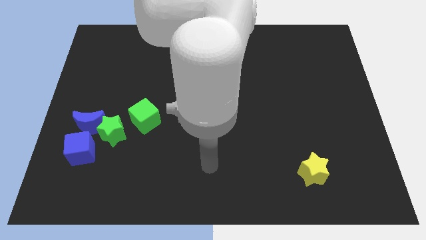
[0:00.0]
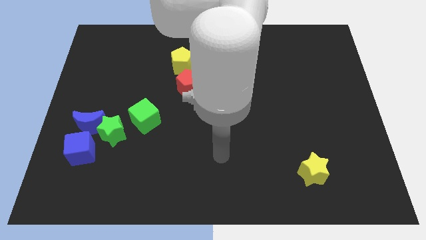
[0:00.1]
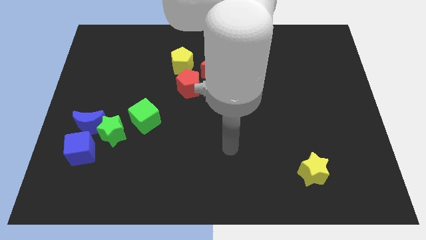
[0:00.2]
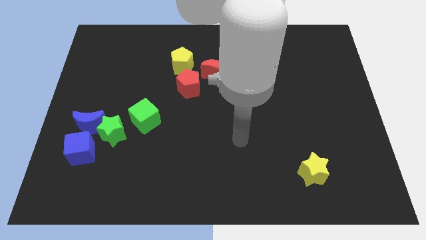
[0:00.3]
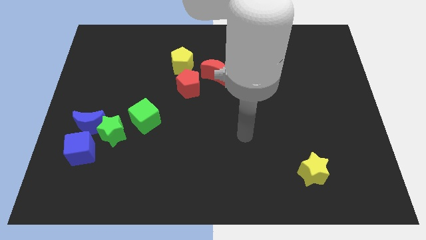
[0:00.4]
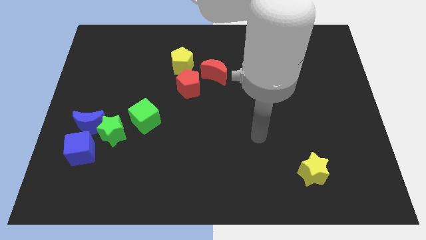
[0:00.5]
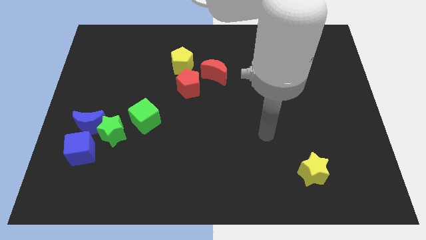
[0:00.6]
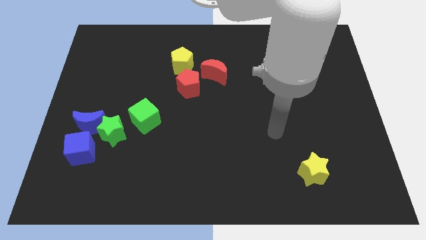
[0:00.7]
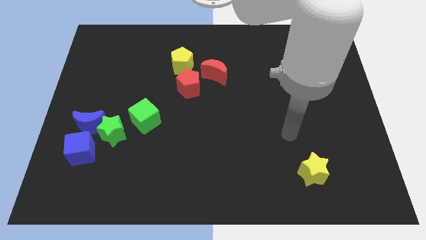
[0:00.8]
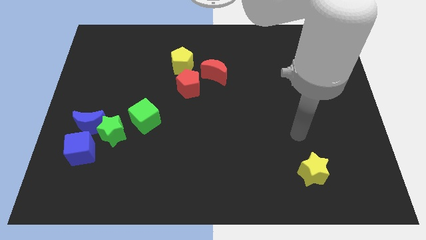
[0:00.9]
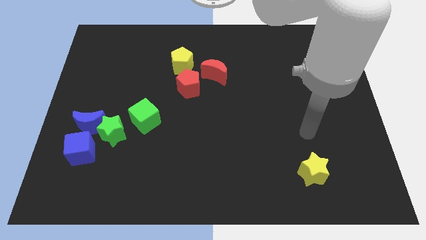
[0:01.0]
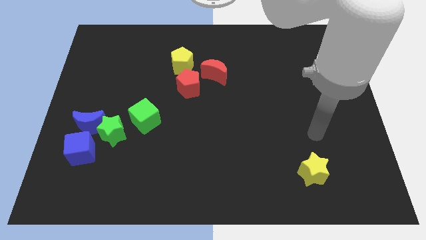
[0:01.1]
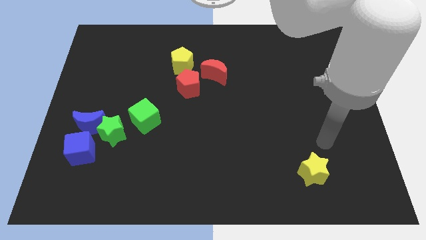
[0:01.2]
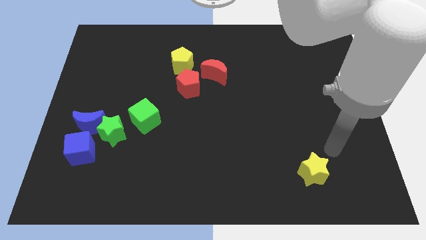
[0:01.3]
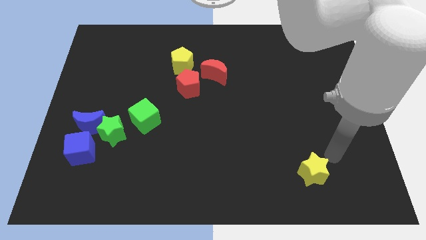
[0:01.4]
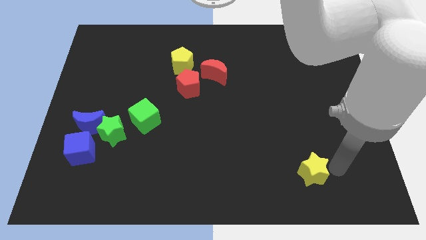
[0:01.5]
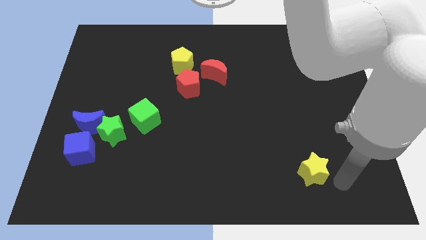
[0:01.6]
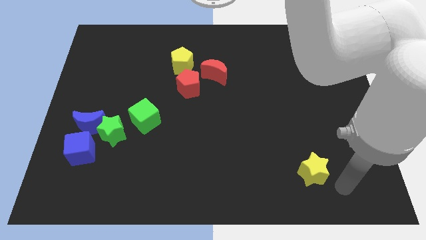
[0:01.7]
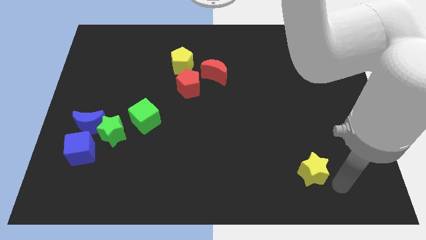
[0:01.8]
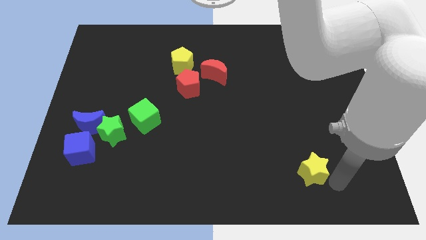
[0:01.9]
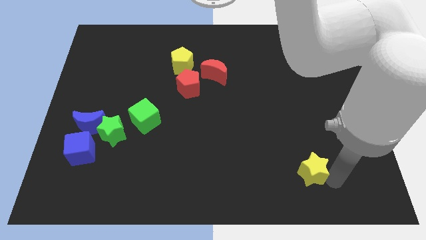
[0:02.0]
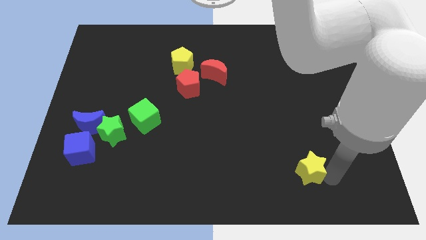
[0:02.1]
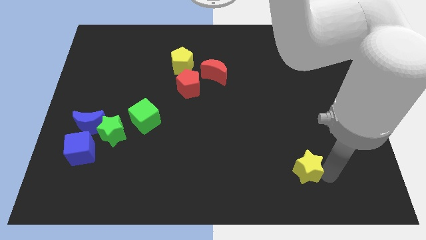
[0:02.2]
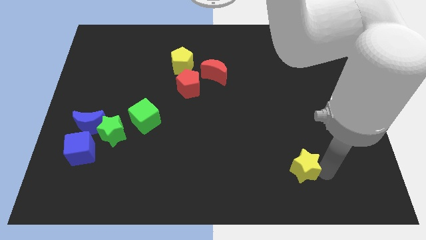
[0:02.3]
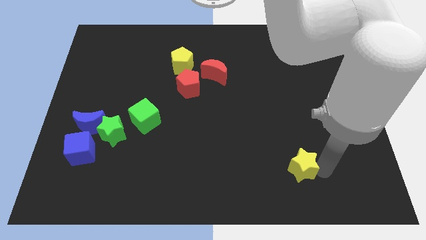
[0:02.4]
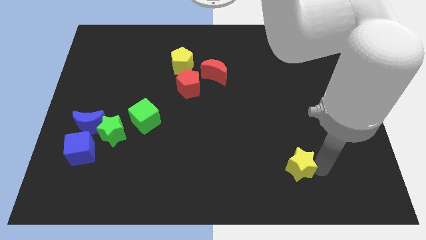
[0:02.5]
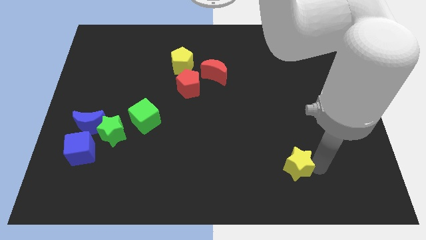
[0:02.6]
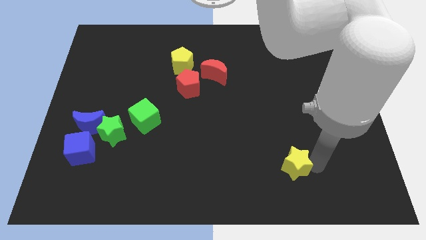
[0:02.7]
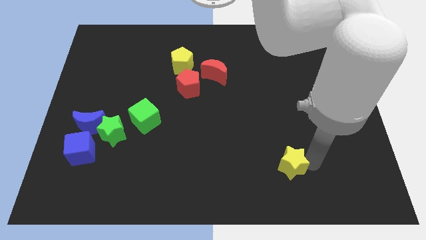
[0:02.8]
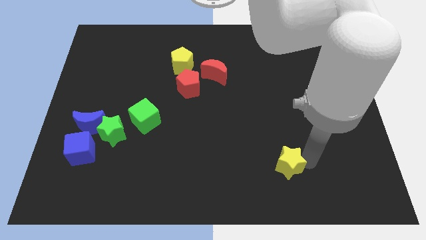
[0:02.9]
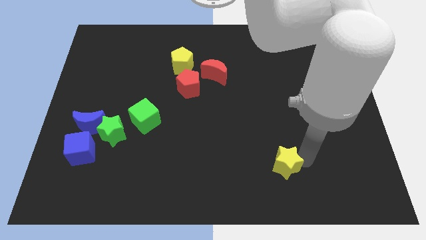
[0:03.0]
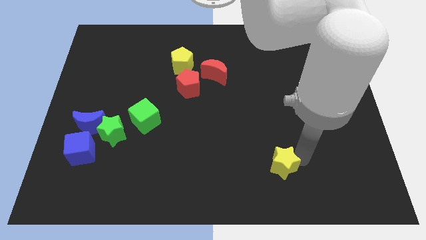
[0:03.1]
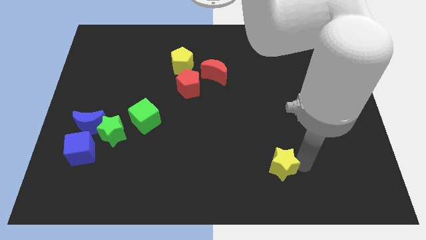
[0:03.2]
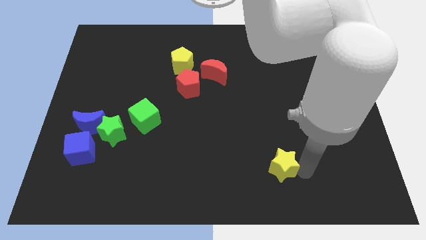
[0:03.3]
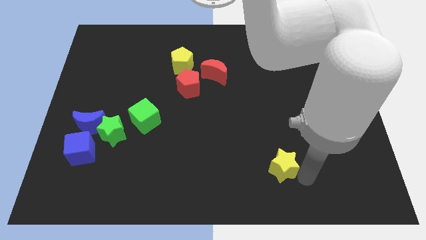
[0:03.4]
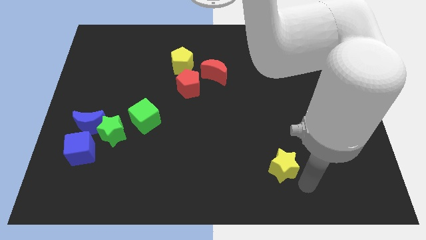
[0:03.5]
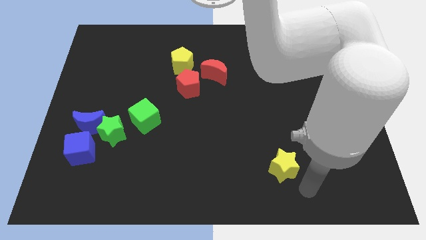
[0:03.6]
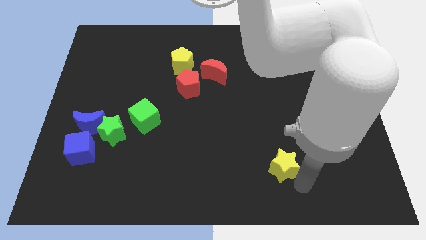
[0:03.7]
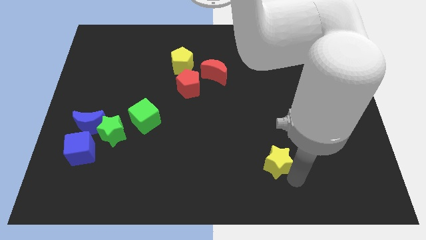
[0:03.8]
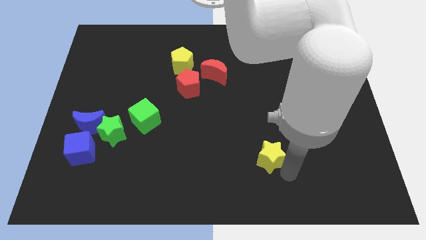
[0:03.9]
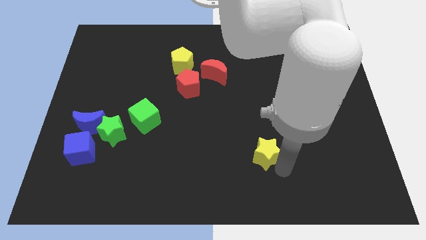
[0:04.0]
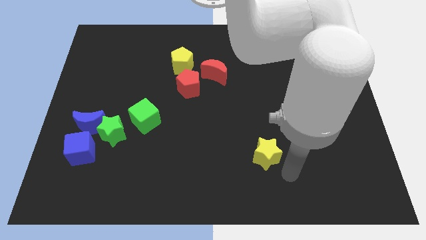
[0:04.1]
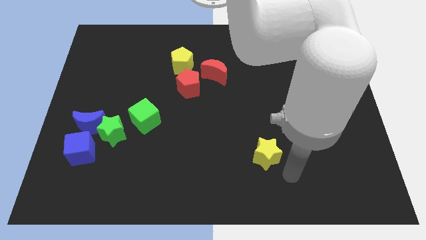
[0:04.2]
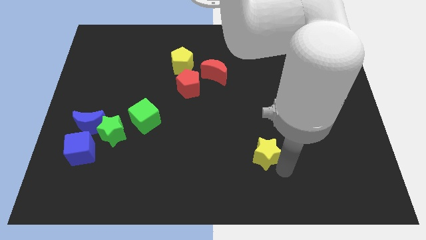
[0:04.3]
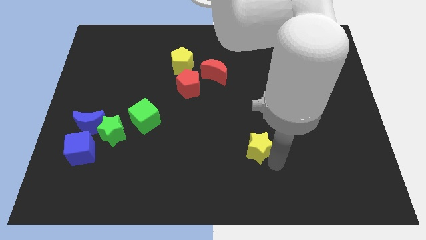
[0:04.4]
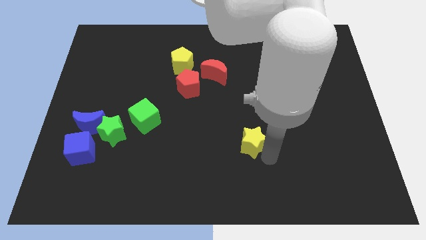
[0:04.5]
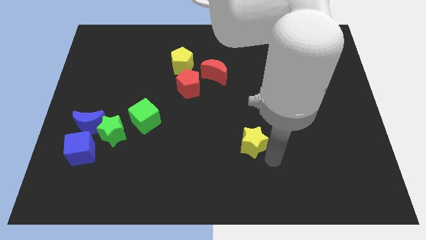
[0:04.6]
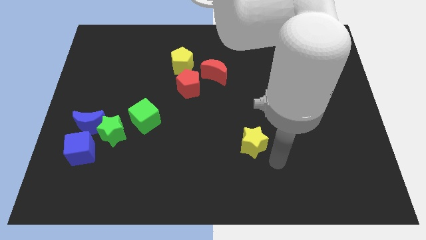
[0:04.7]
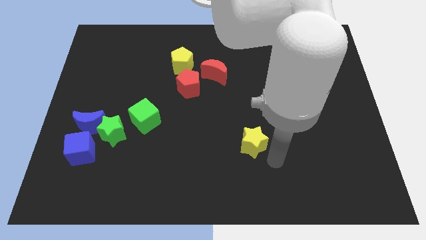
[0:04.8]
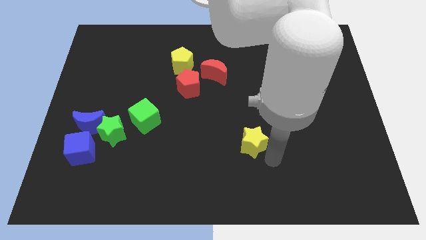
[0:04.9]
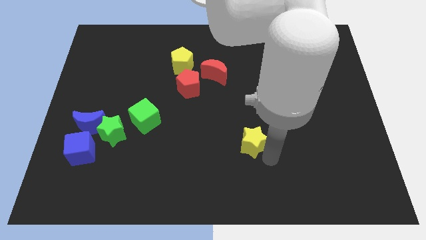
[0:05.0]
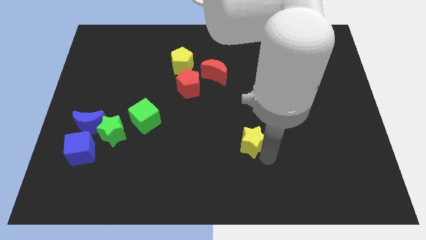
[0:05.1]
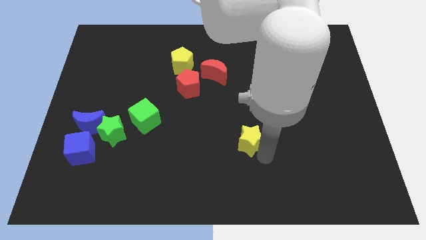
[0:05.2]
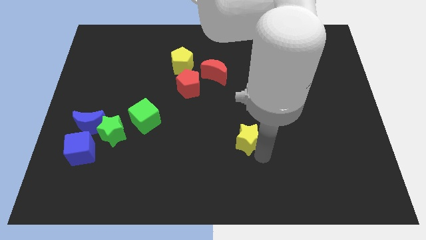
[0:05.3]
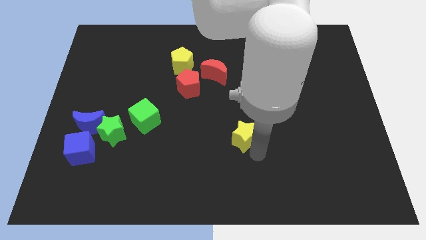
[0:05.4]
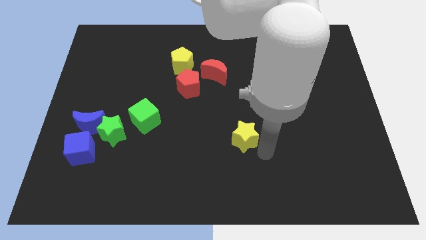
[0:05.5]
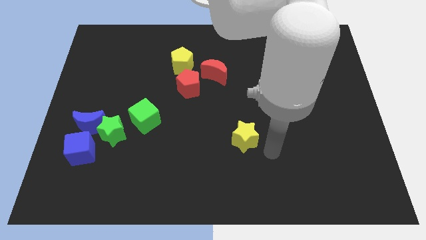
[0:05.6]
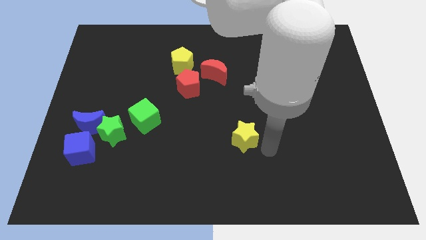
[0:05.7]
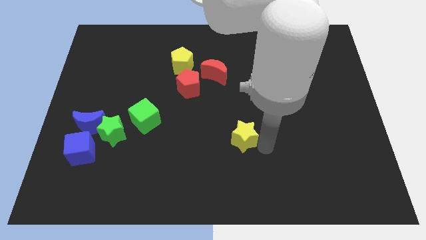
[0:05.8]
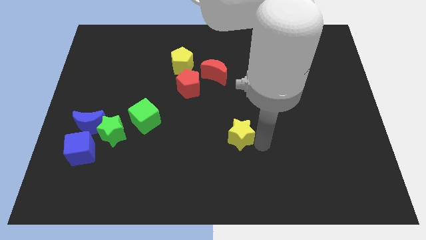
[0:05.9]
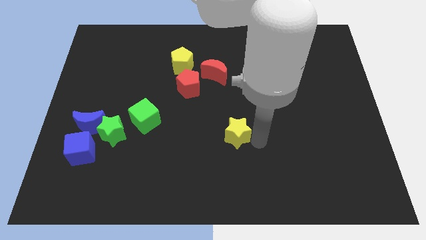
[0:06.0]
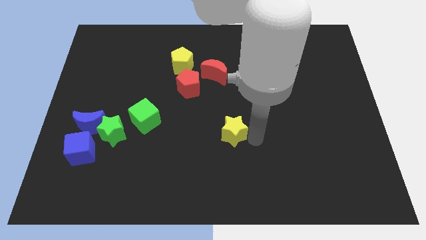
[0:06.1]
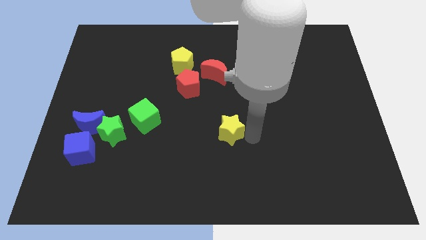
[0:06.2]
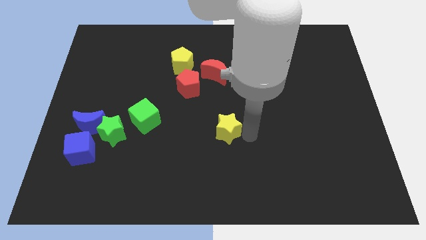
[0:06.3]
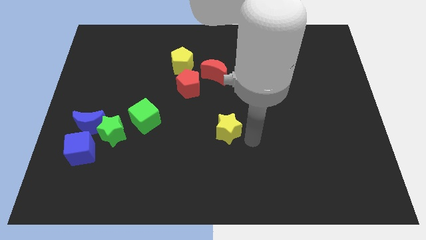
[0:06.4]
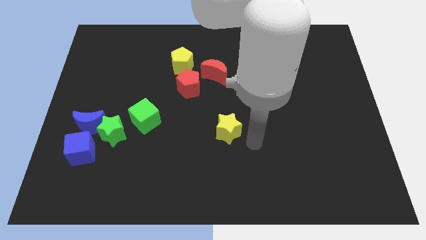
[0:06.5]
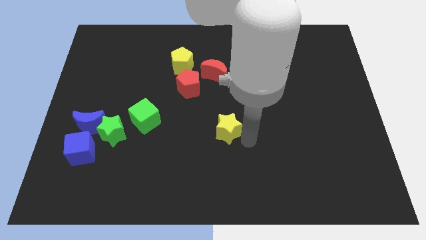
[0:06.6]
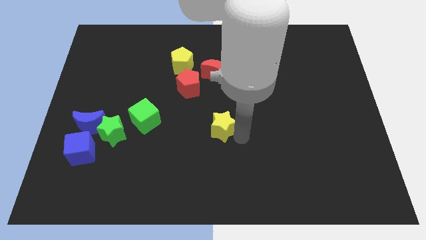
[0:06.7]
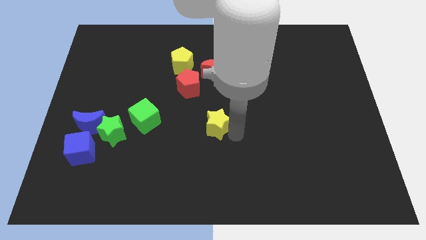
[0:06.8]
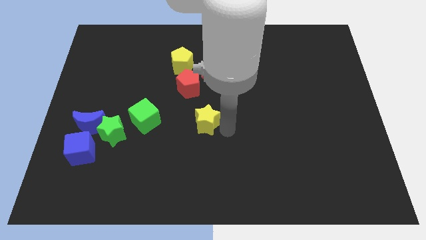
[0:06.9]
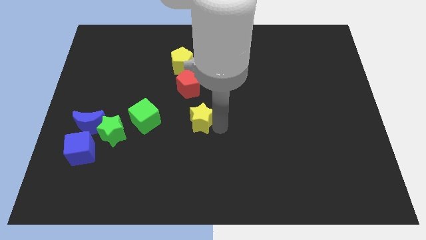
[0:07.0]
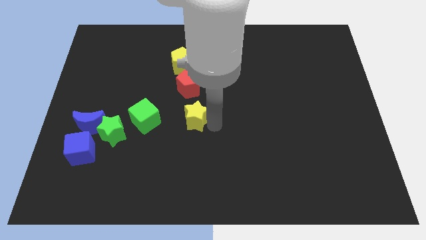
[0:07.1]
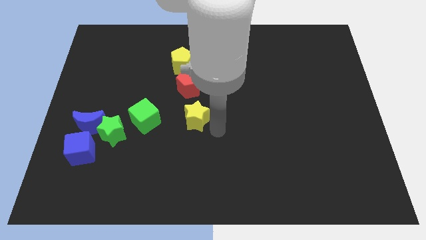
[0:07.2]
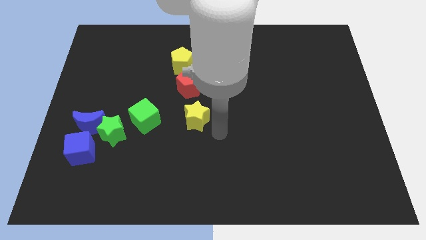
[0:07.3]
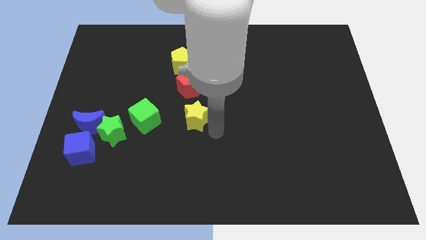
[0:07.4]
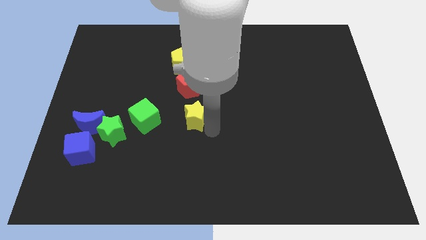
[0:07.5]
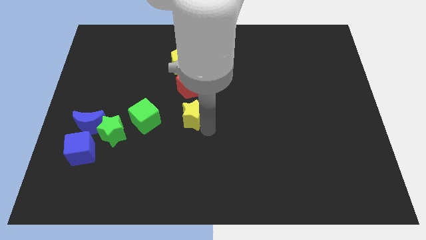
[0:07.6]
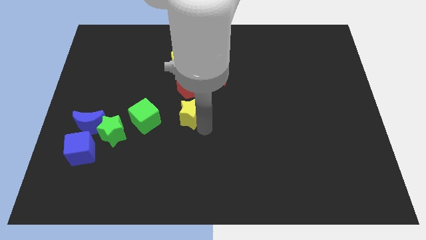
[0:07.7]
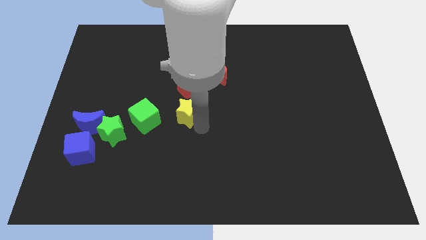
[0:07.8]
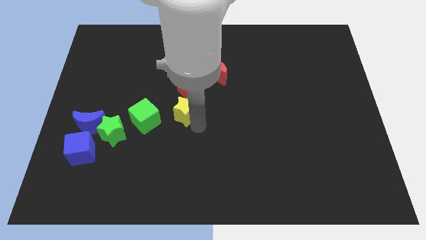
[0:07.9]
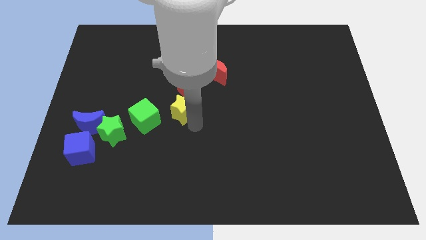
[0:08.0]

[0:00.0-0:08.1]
move the yellow star to the top right of the green cube
